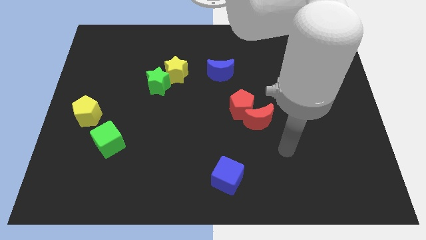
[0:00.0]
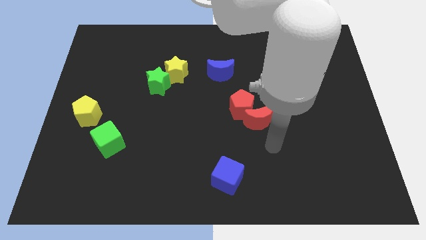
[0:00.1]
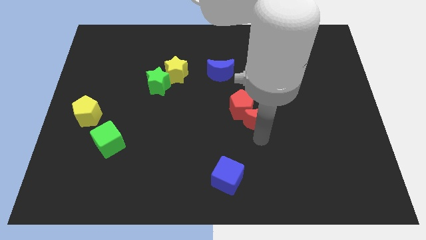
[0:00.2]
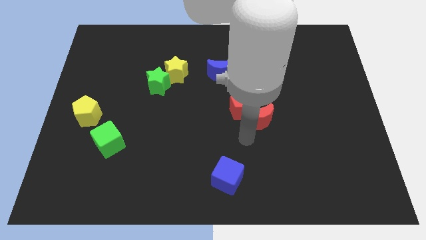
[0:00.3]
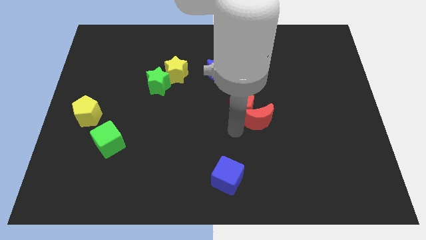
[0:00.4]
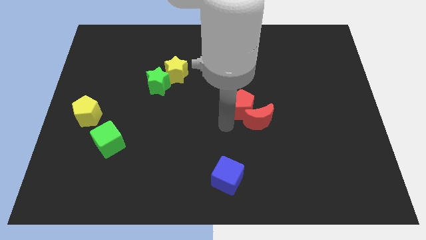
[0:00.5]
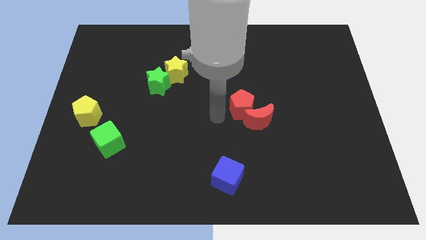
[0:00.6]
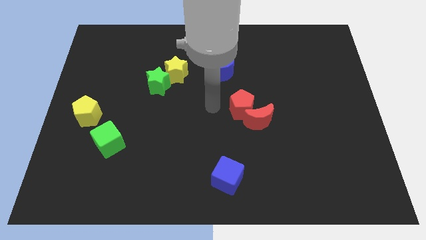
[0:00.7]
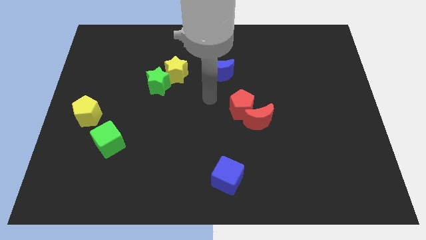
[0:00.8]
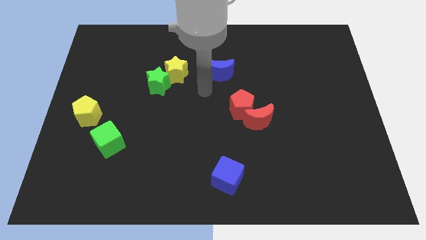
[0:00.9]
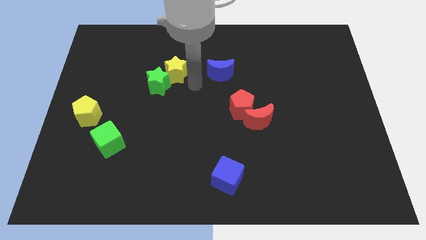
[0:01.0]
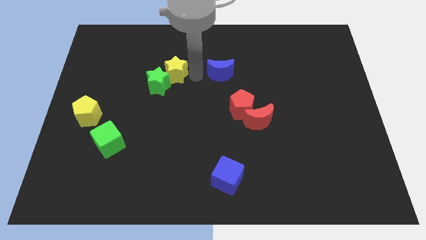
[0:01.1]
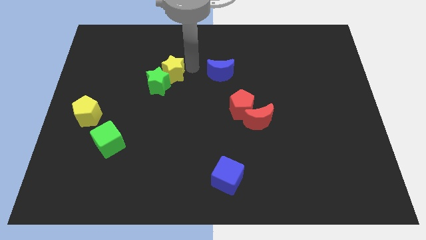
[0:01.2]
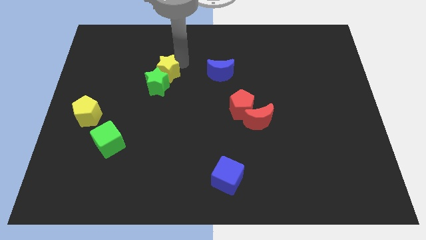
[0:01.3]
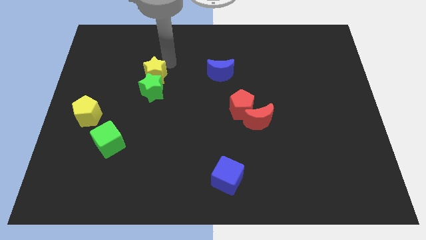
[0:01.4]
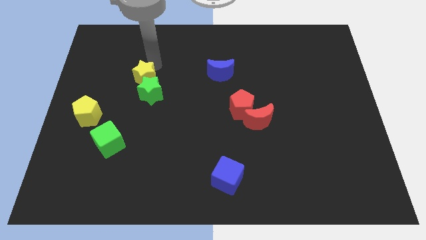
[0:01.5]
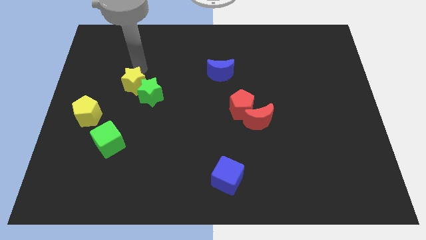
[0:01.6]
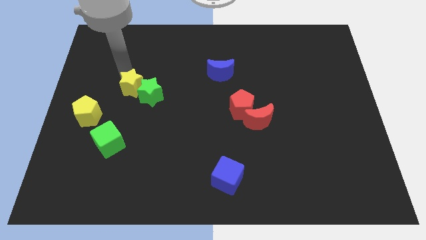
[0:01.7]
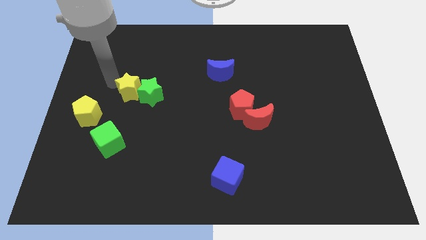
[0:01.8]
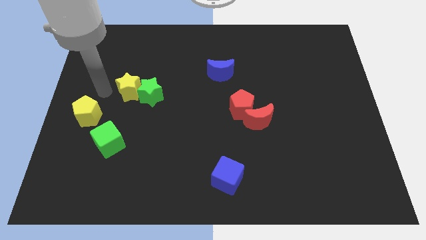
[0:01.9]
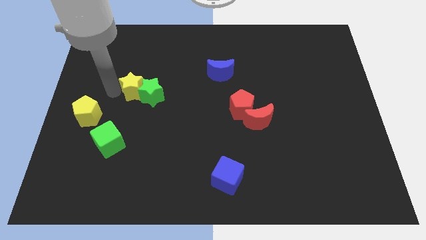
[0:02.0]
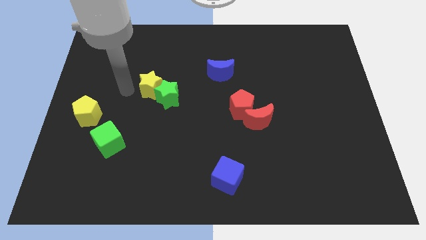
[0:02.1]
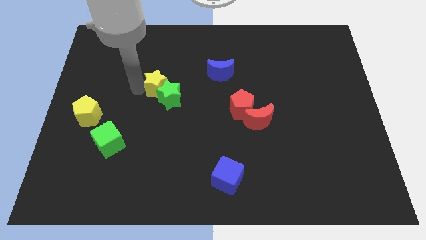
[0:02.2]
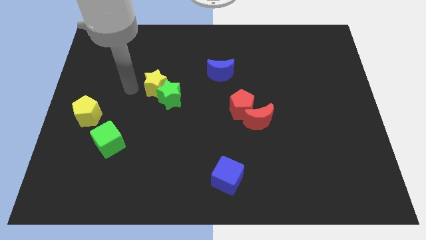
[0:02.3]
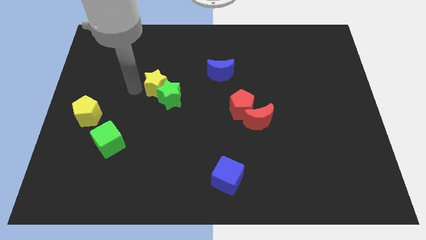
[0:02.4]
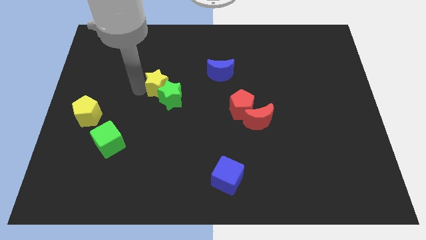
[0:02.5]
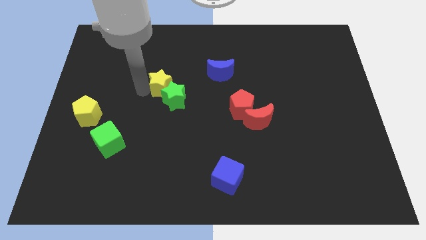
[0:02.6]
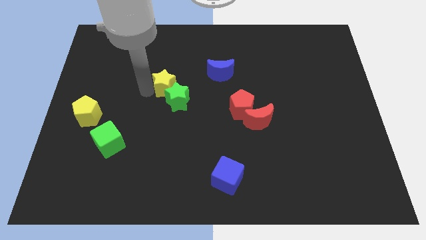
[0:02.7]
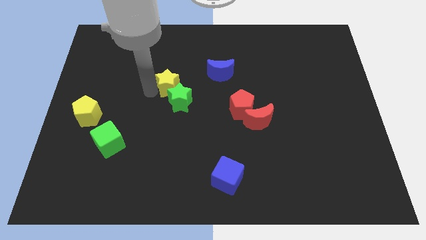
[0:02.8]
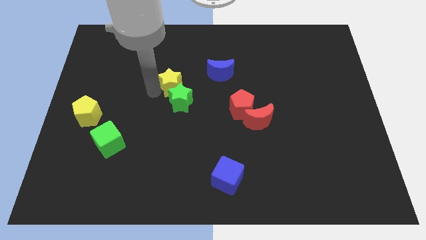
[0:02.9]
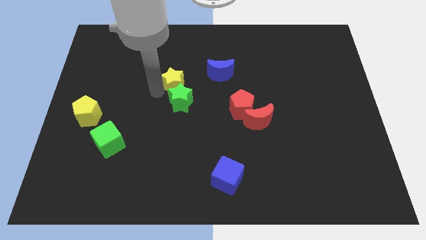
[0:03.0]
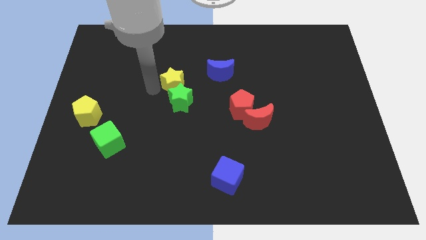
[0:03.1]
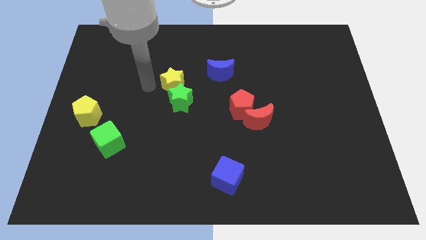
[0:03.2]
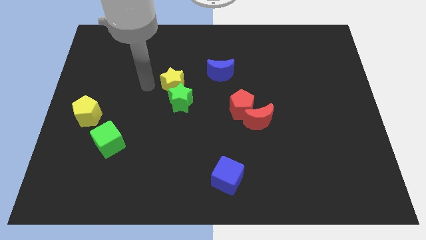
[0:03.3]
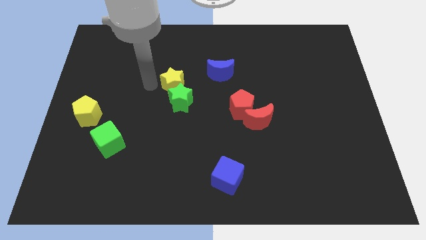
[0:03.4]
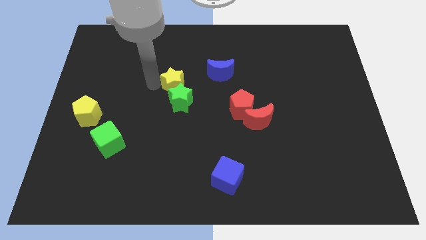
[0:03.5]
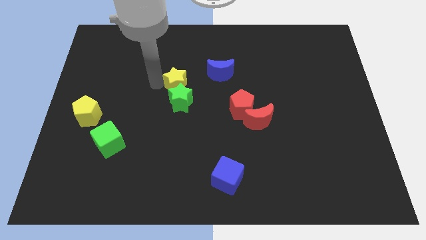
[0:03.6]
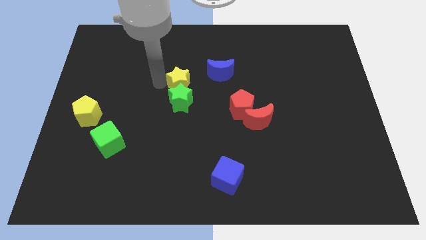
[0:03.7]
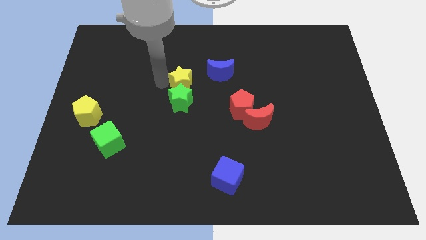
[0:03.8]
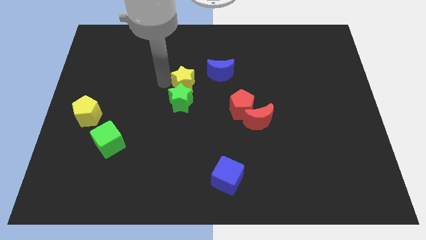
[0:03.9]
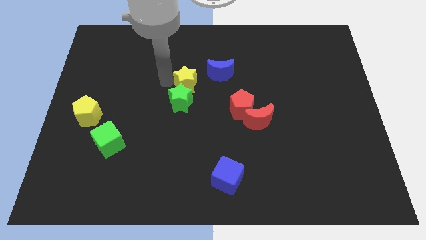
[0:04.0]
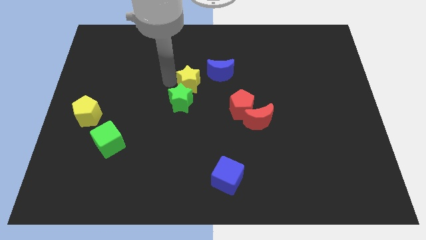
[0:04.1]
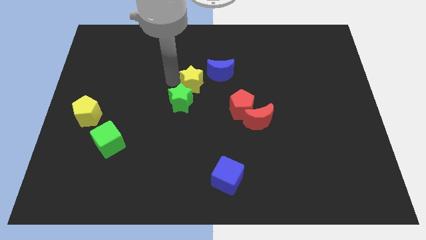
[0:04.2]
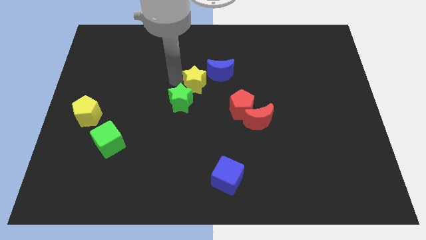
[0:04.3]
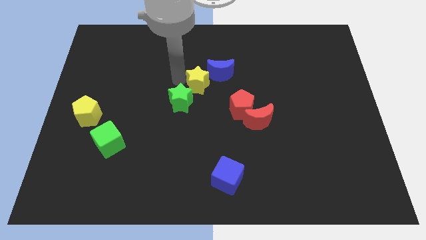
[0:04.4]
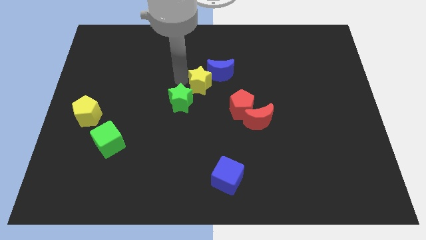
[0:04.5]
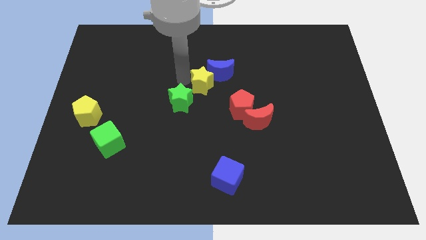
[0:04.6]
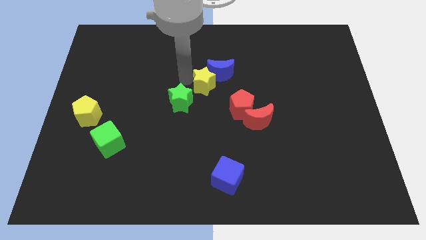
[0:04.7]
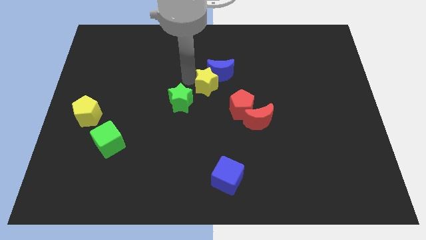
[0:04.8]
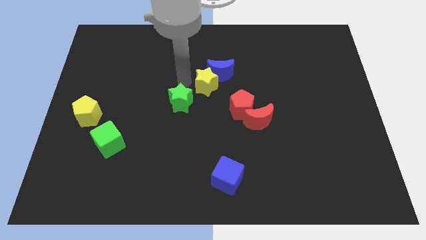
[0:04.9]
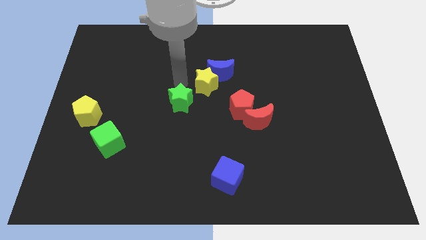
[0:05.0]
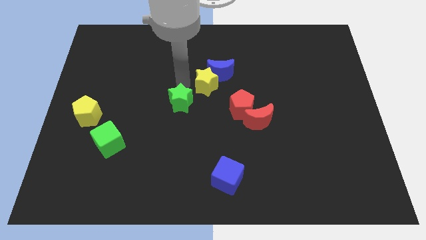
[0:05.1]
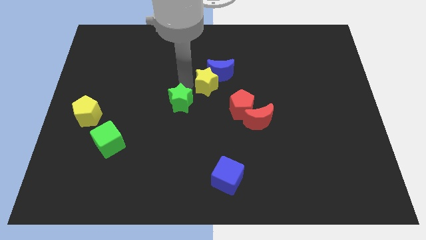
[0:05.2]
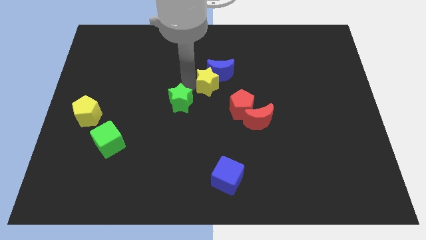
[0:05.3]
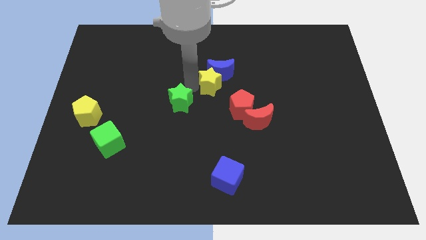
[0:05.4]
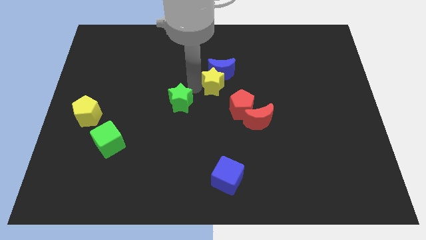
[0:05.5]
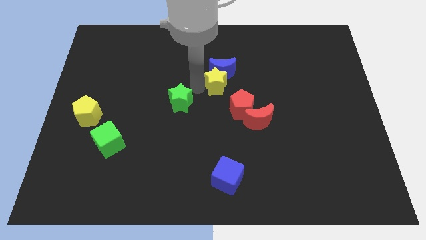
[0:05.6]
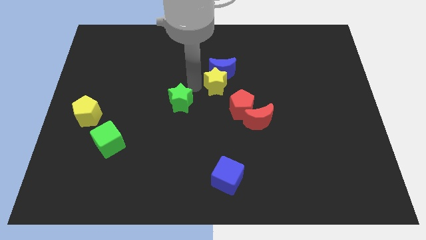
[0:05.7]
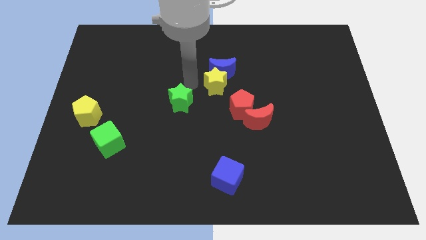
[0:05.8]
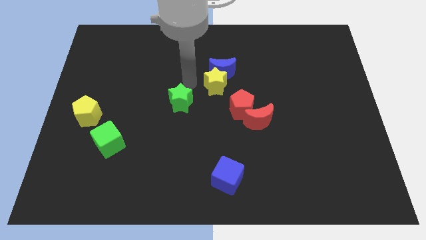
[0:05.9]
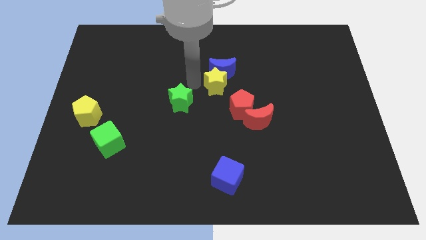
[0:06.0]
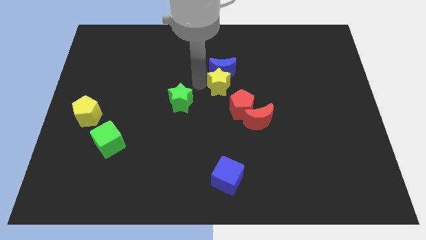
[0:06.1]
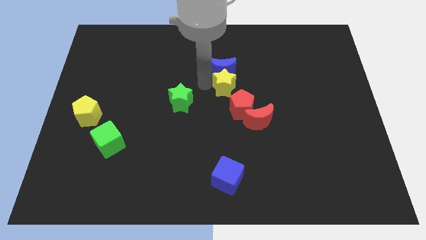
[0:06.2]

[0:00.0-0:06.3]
put the yellow star above the red pentagon
